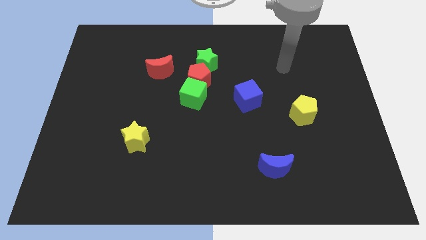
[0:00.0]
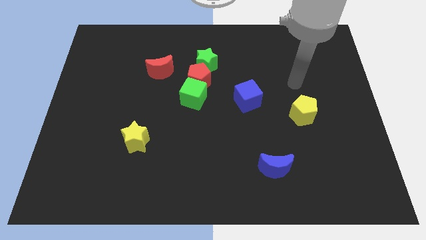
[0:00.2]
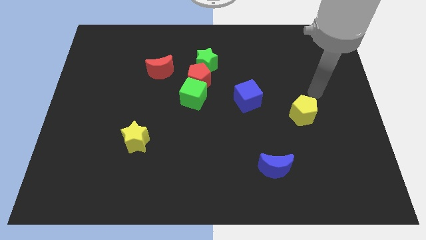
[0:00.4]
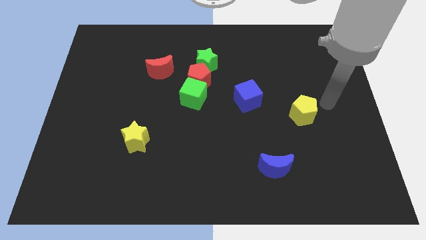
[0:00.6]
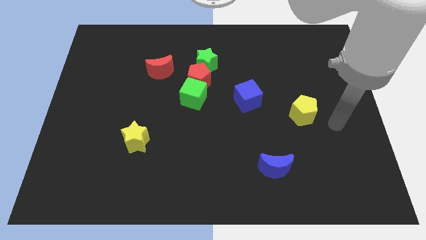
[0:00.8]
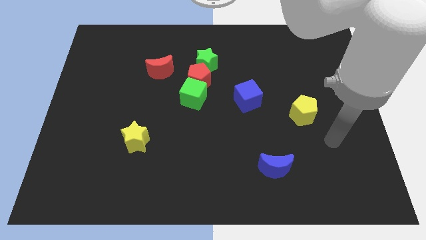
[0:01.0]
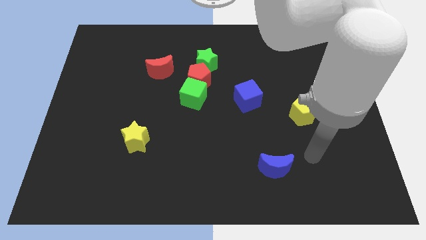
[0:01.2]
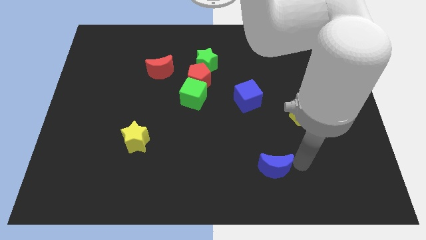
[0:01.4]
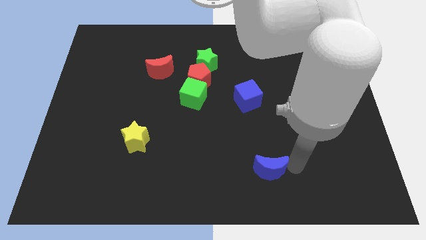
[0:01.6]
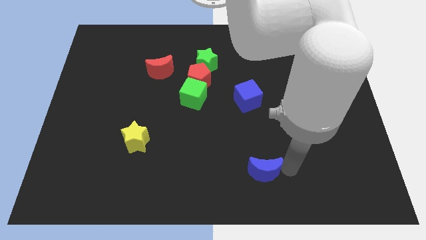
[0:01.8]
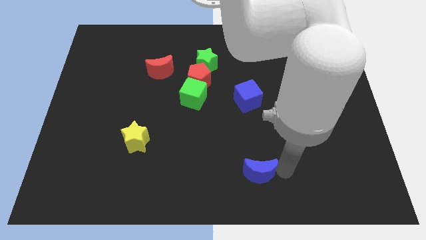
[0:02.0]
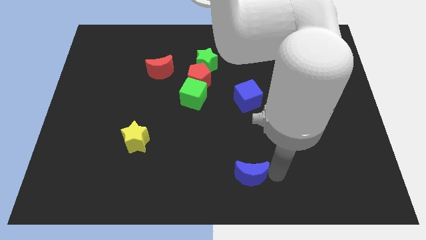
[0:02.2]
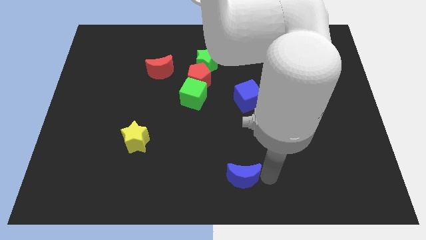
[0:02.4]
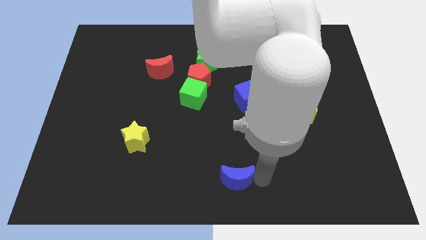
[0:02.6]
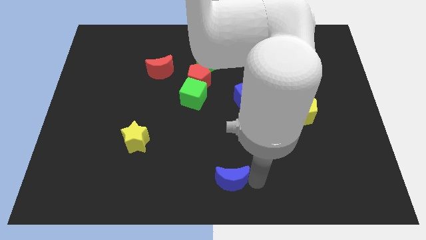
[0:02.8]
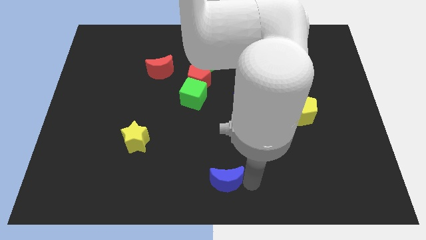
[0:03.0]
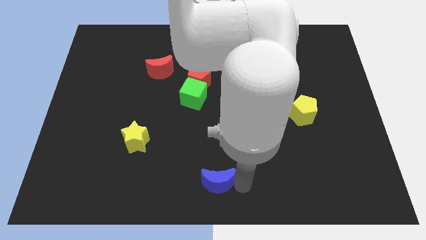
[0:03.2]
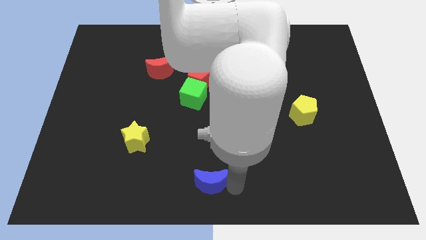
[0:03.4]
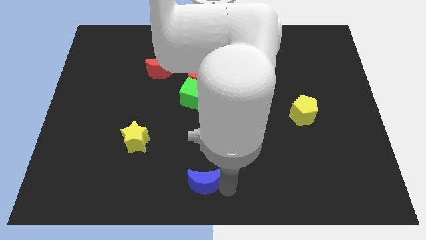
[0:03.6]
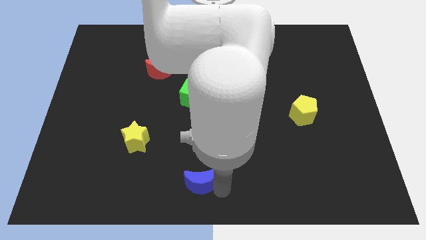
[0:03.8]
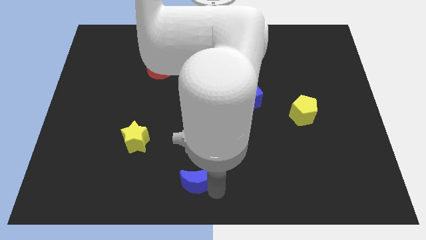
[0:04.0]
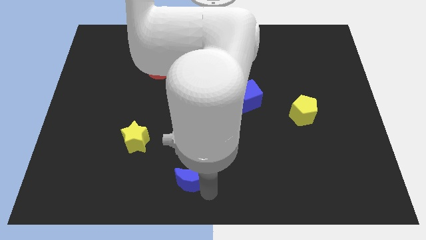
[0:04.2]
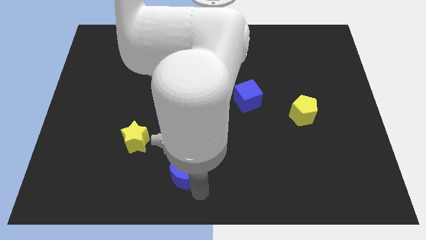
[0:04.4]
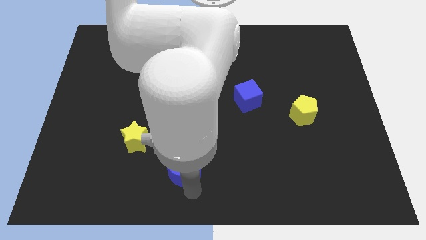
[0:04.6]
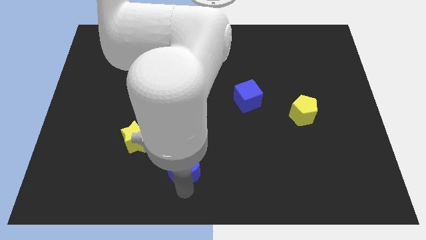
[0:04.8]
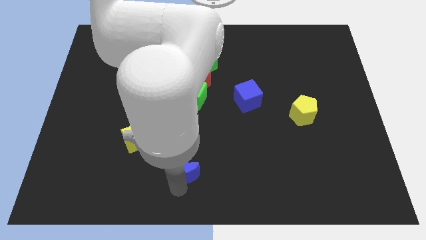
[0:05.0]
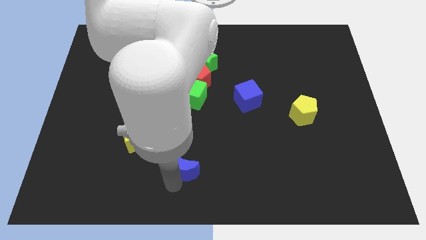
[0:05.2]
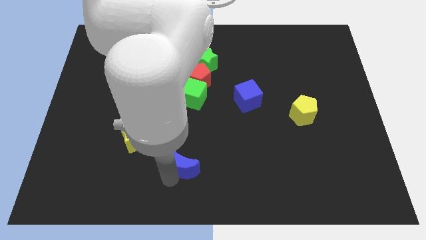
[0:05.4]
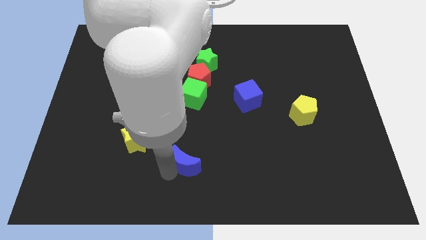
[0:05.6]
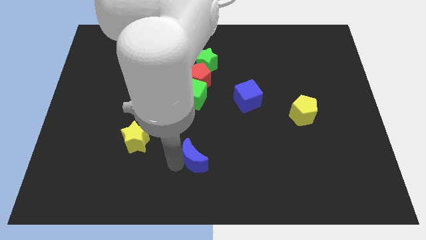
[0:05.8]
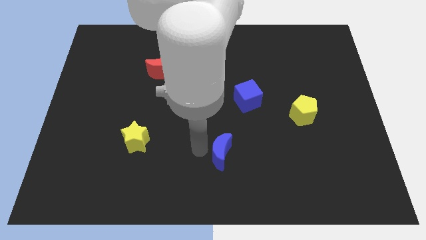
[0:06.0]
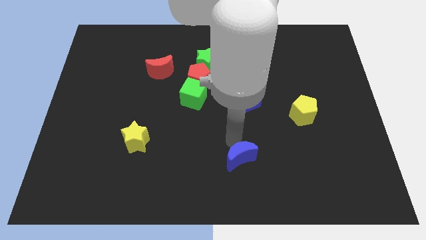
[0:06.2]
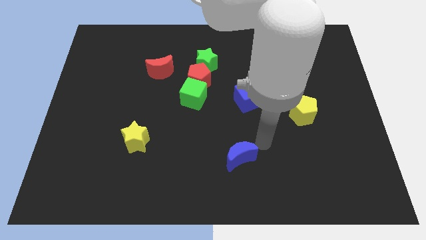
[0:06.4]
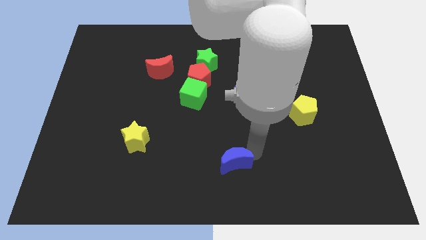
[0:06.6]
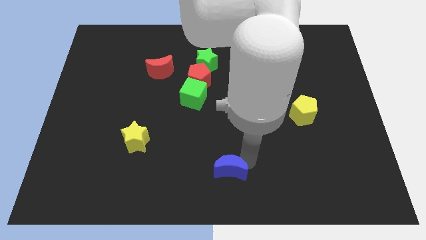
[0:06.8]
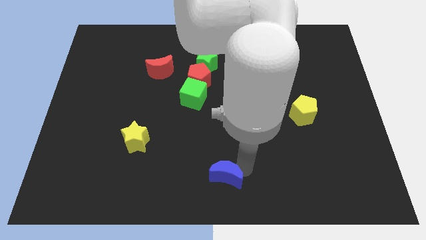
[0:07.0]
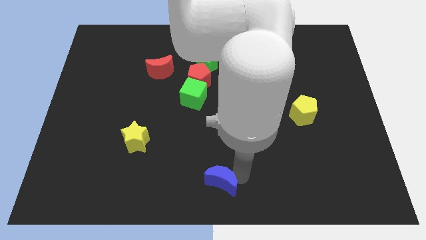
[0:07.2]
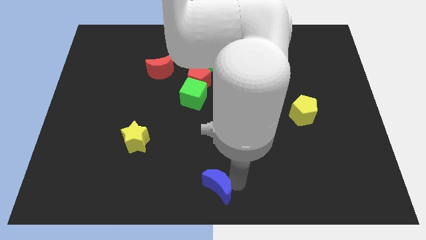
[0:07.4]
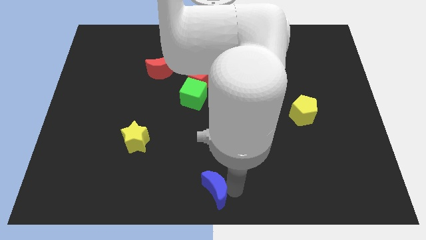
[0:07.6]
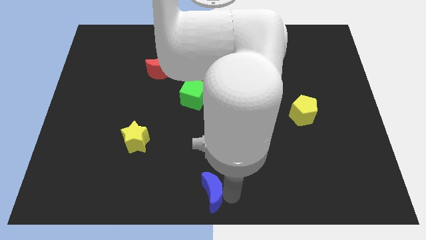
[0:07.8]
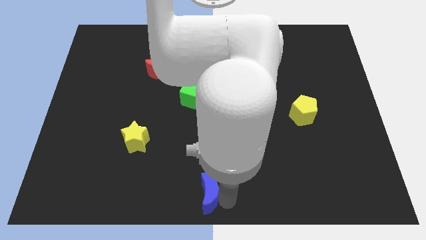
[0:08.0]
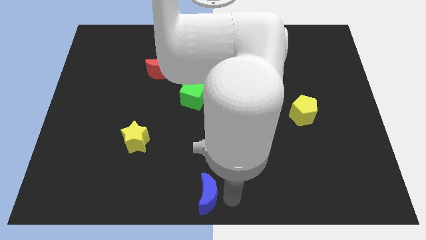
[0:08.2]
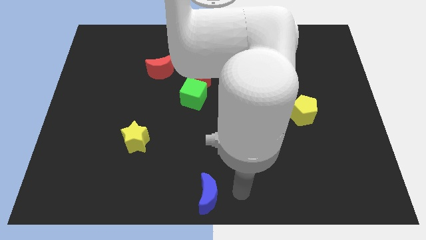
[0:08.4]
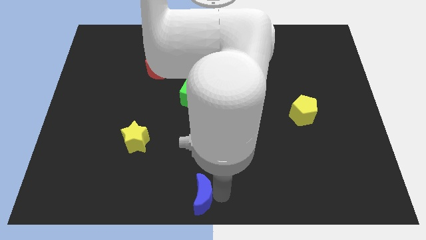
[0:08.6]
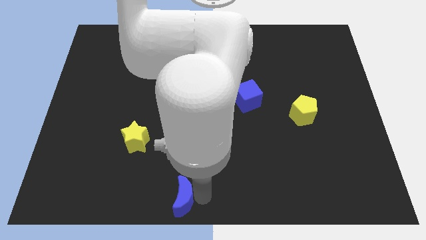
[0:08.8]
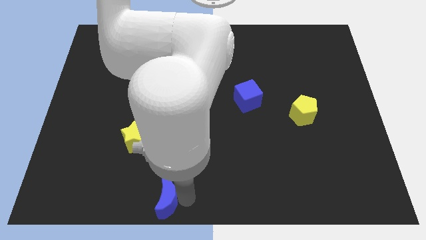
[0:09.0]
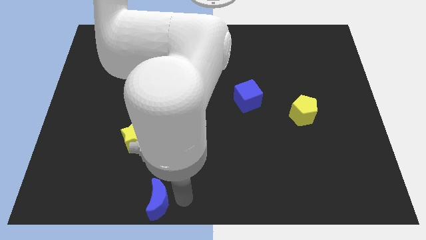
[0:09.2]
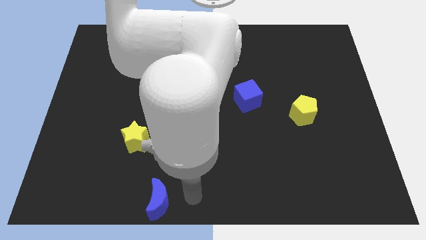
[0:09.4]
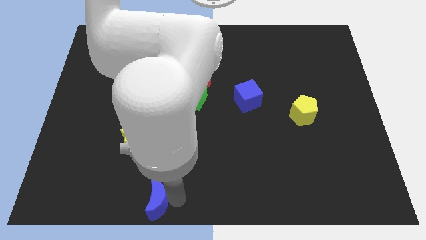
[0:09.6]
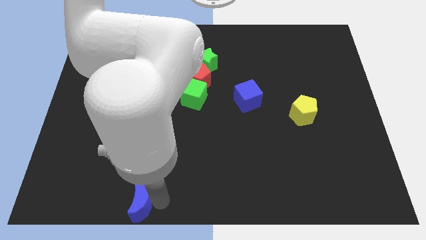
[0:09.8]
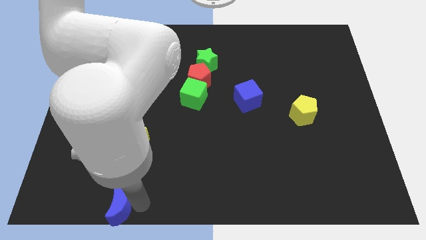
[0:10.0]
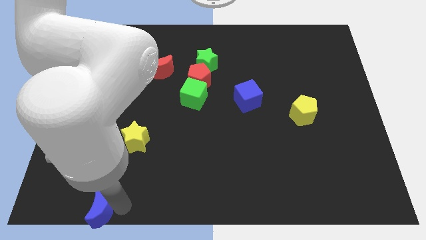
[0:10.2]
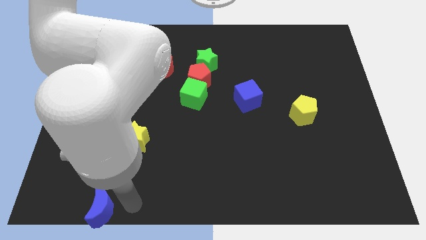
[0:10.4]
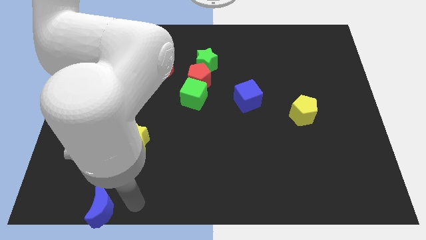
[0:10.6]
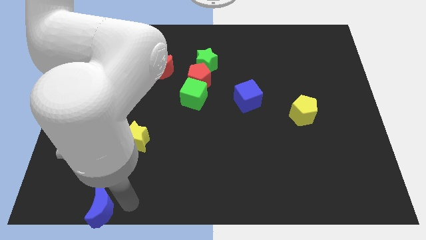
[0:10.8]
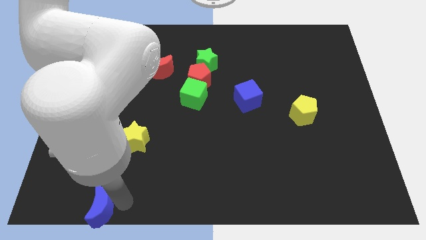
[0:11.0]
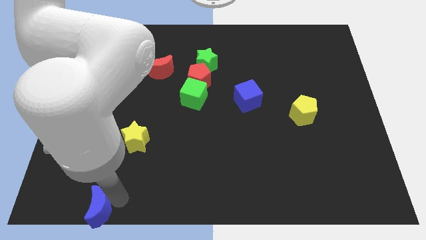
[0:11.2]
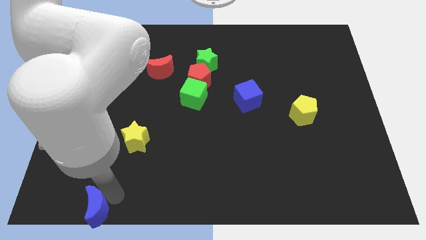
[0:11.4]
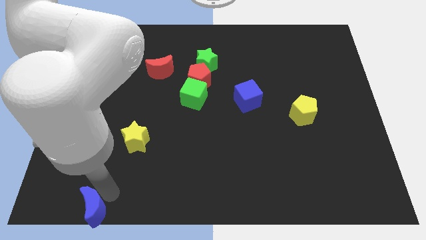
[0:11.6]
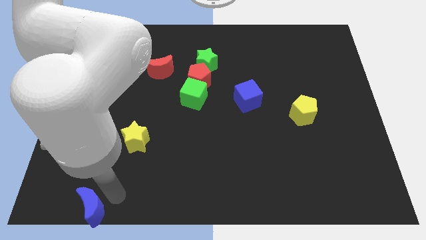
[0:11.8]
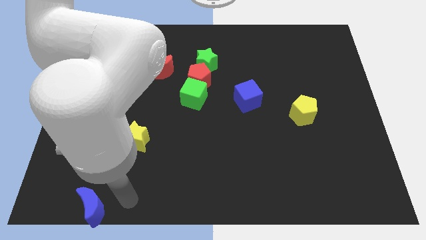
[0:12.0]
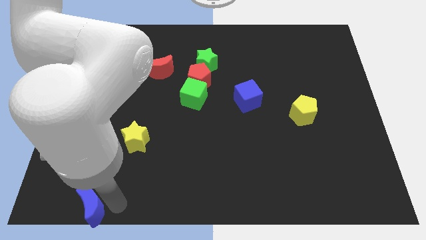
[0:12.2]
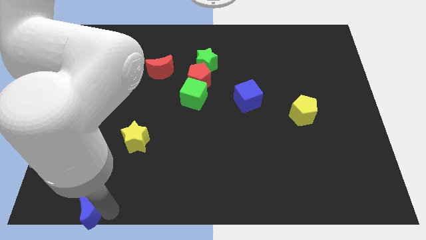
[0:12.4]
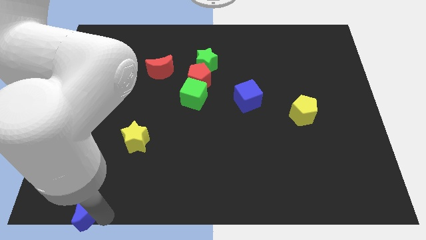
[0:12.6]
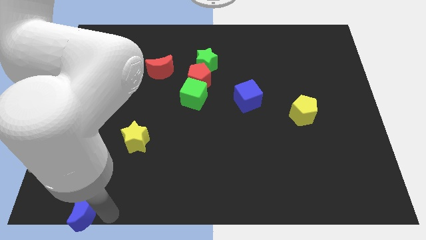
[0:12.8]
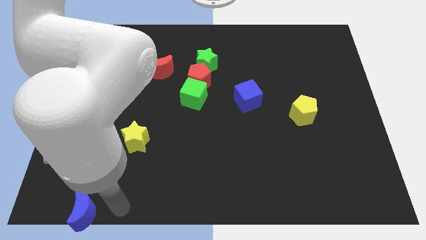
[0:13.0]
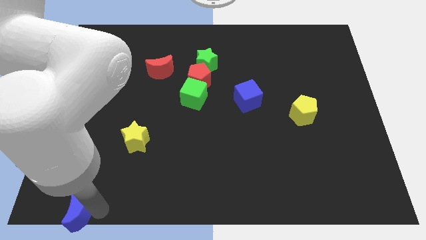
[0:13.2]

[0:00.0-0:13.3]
push the blue moon to the lower left corner
